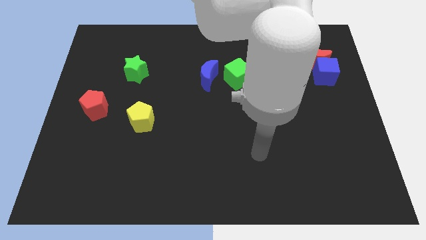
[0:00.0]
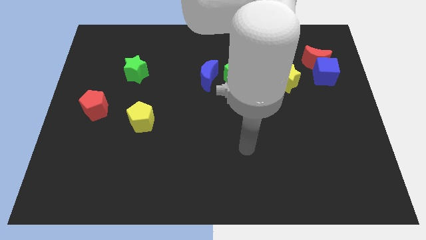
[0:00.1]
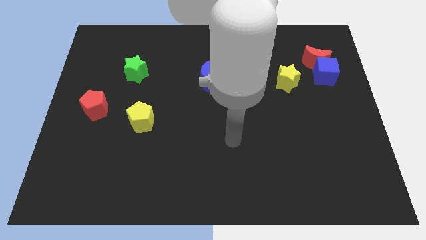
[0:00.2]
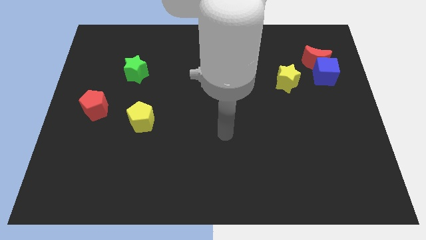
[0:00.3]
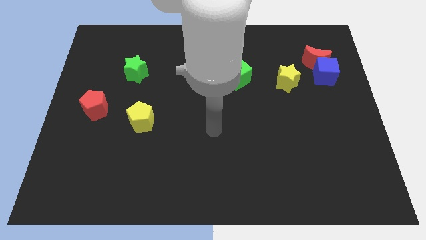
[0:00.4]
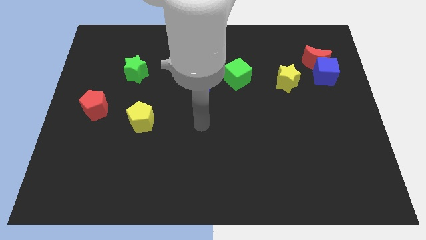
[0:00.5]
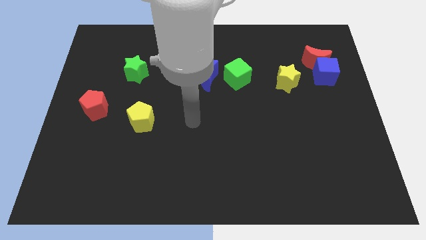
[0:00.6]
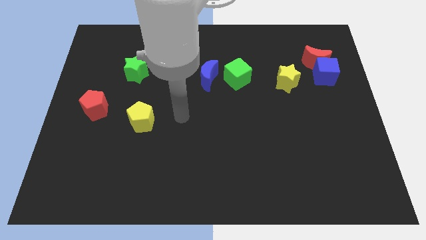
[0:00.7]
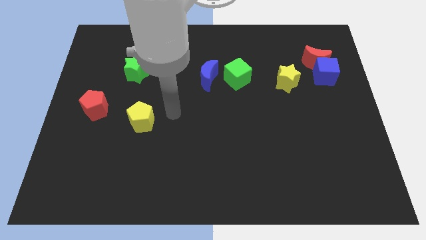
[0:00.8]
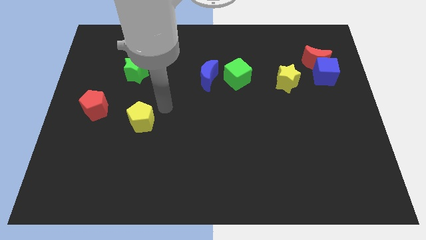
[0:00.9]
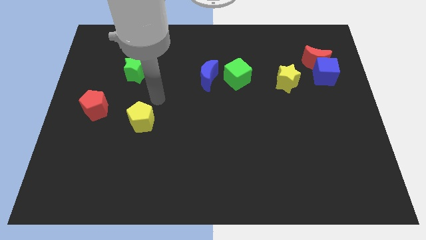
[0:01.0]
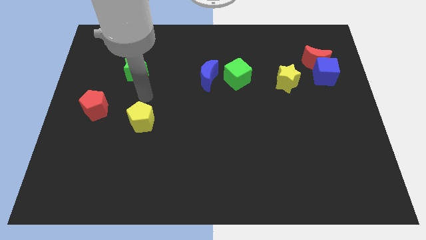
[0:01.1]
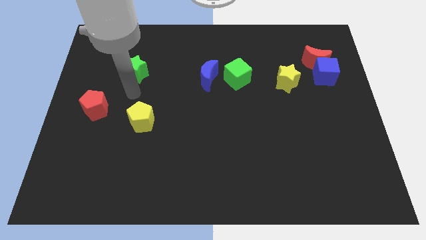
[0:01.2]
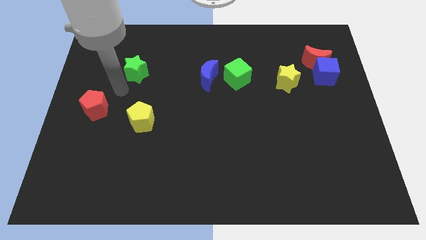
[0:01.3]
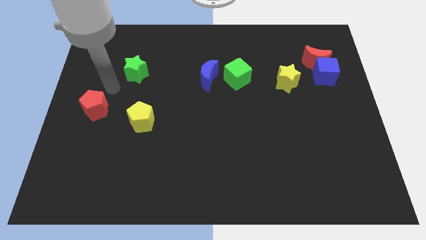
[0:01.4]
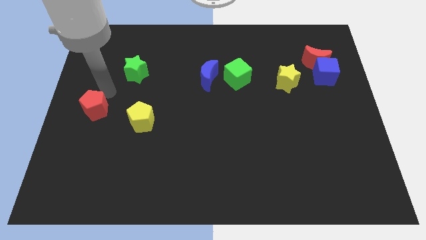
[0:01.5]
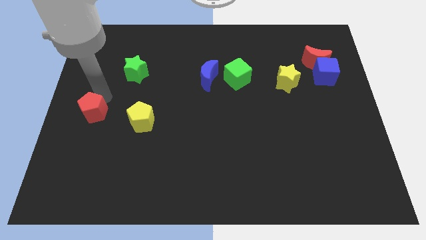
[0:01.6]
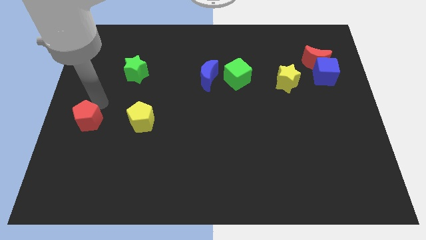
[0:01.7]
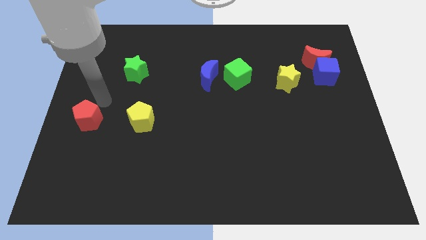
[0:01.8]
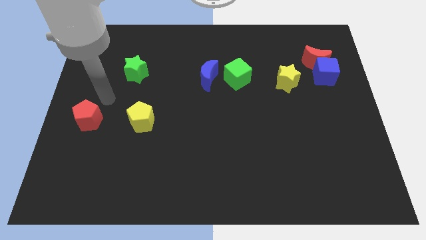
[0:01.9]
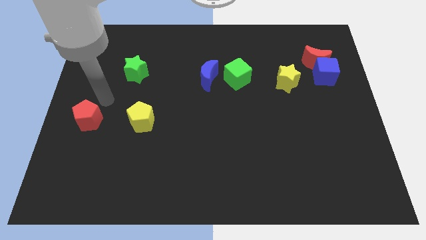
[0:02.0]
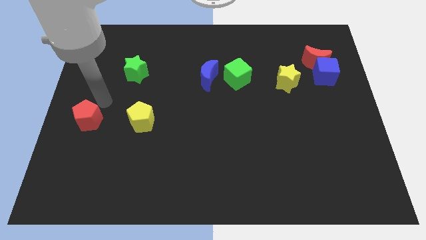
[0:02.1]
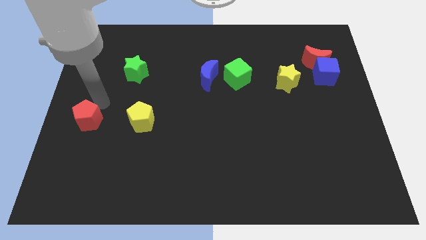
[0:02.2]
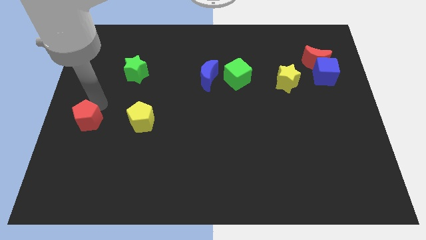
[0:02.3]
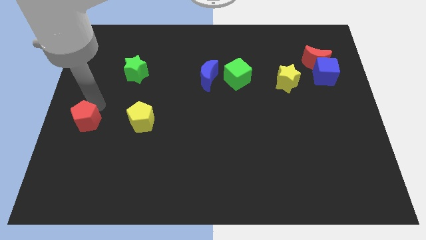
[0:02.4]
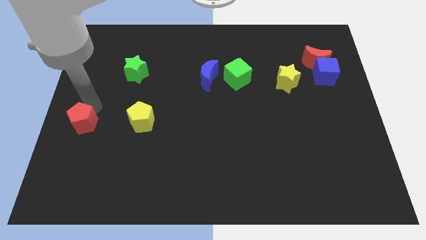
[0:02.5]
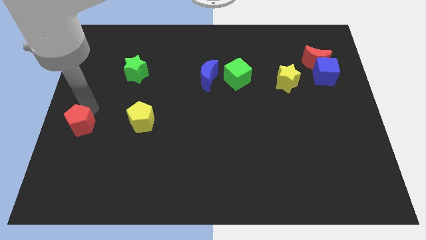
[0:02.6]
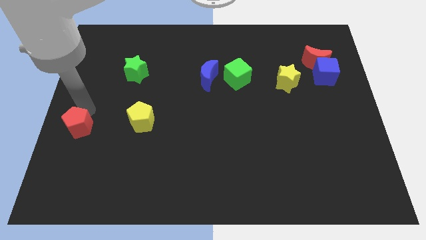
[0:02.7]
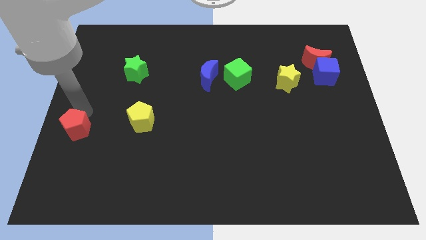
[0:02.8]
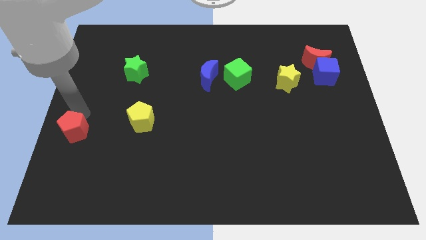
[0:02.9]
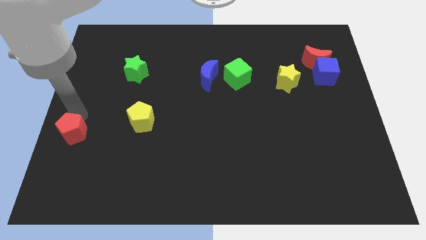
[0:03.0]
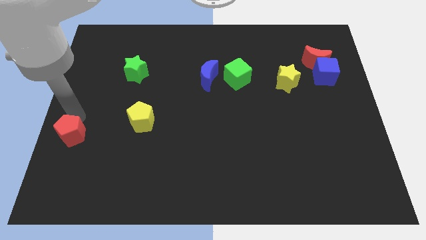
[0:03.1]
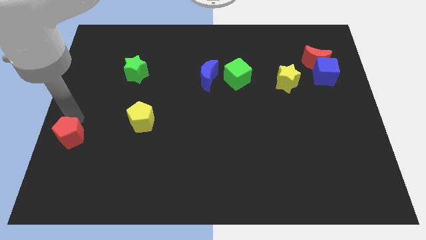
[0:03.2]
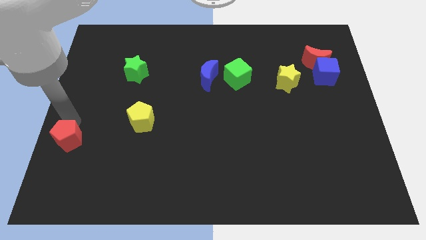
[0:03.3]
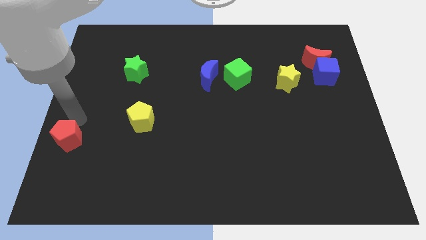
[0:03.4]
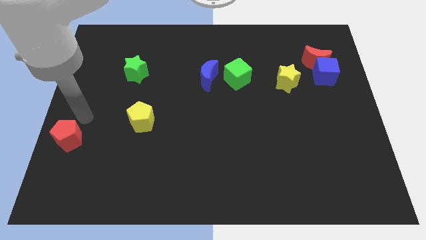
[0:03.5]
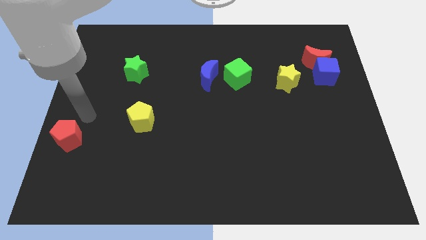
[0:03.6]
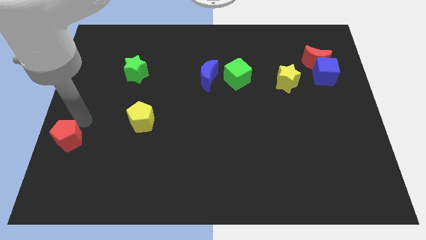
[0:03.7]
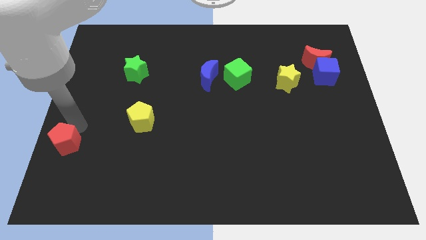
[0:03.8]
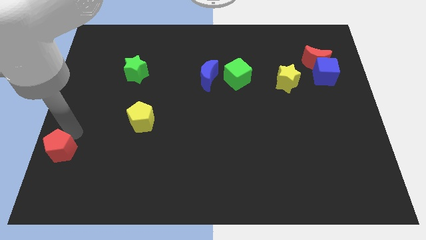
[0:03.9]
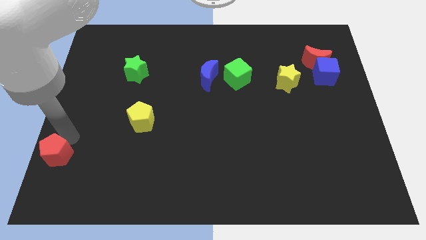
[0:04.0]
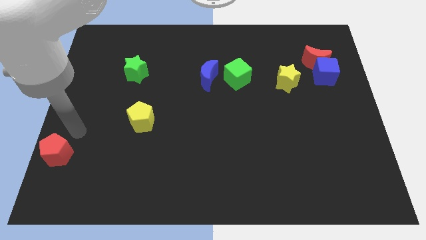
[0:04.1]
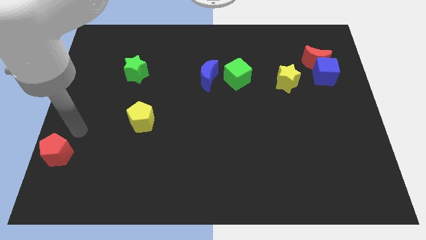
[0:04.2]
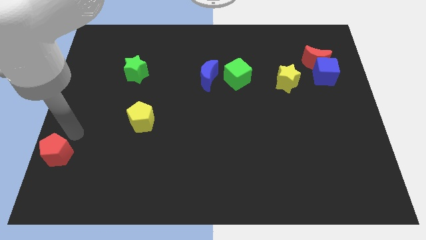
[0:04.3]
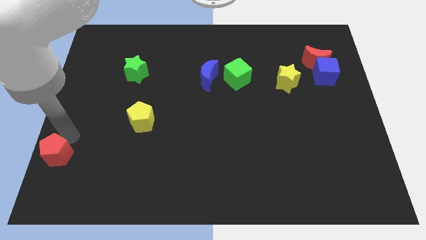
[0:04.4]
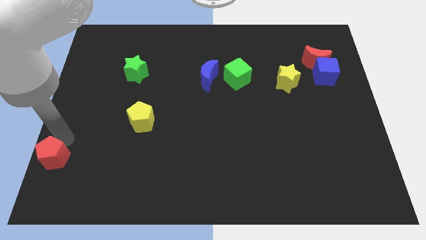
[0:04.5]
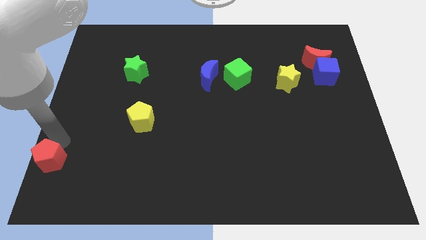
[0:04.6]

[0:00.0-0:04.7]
slide the red pentagon to the lower left corner

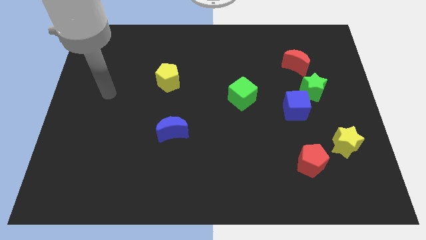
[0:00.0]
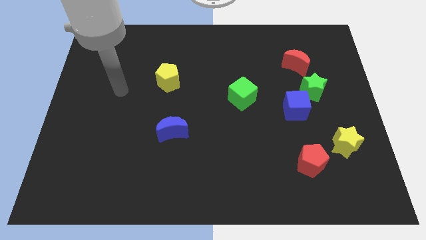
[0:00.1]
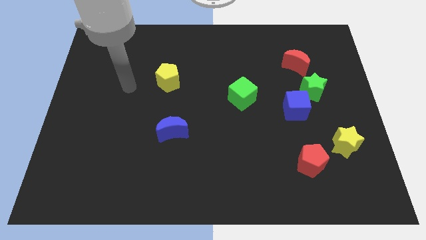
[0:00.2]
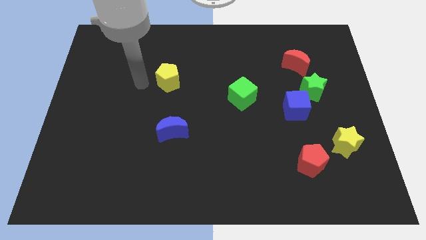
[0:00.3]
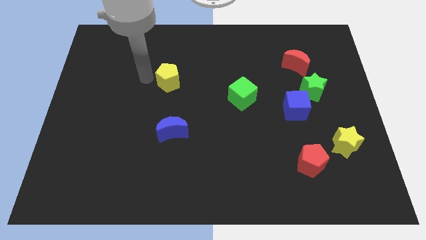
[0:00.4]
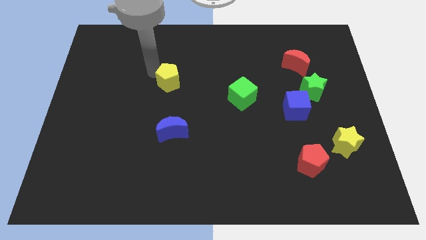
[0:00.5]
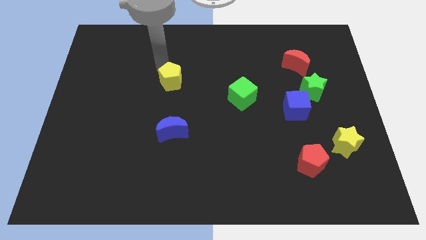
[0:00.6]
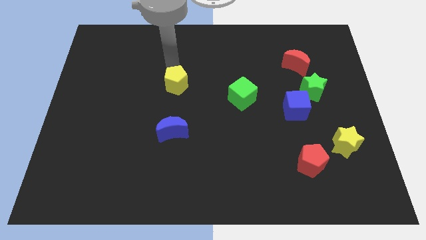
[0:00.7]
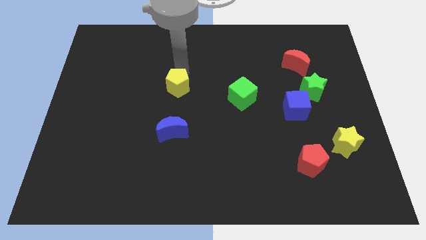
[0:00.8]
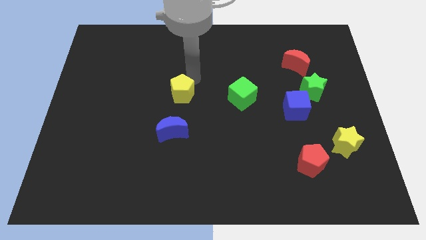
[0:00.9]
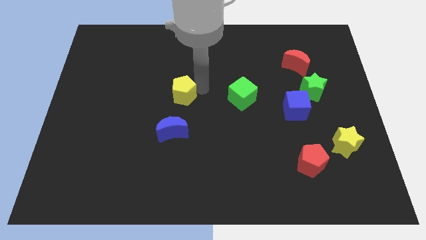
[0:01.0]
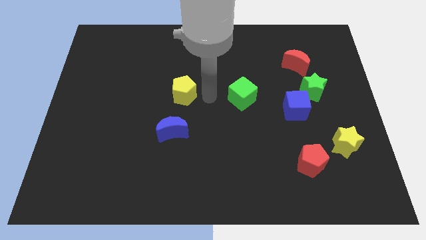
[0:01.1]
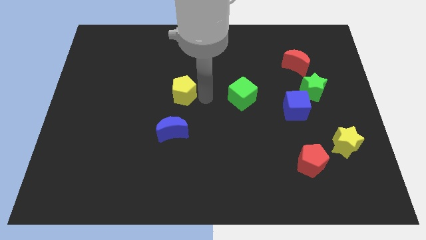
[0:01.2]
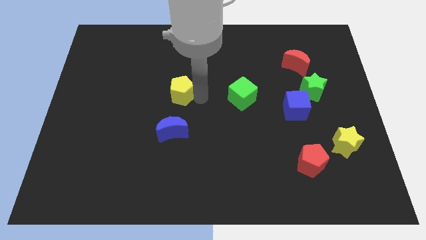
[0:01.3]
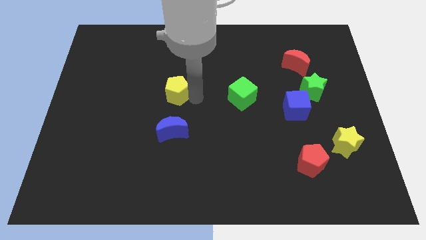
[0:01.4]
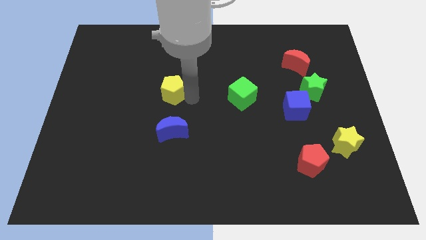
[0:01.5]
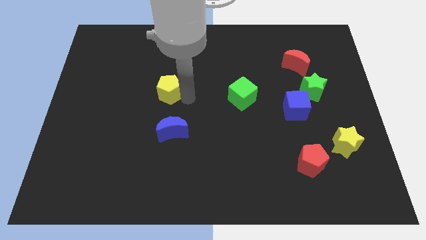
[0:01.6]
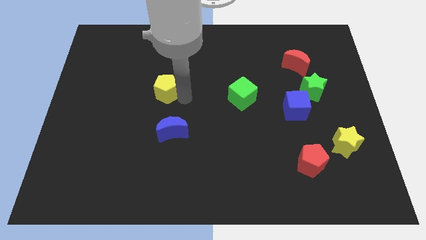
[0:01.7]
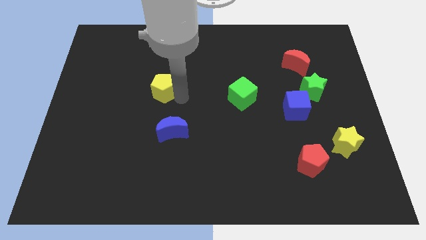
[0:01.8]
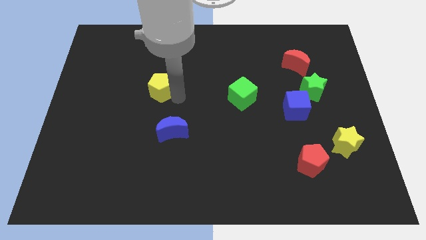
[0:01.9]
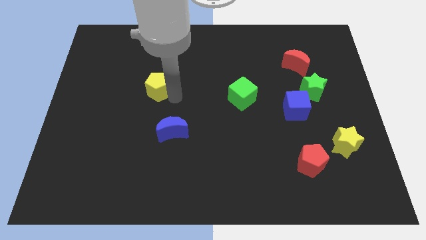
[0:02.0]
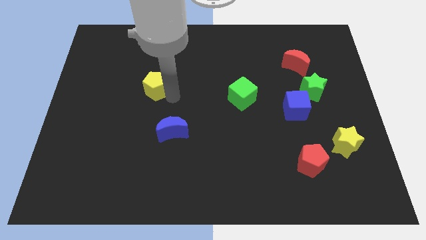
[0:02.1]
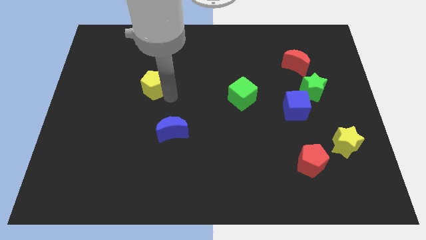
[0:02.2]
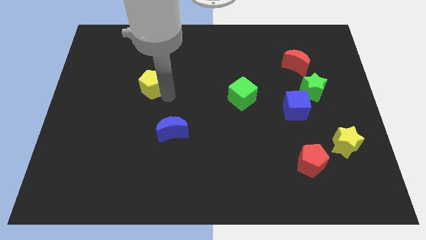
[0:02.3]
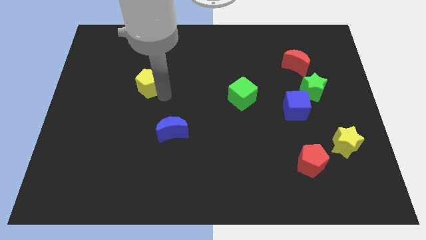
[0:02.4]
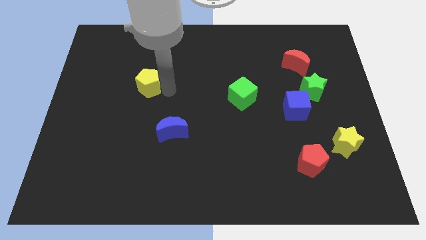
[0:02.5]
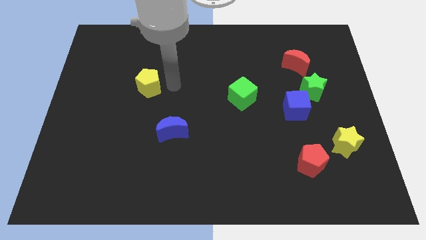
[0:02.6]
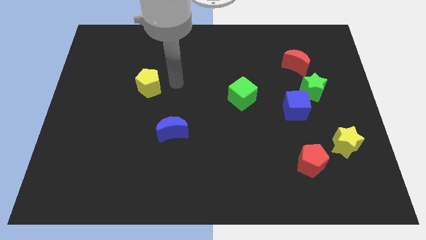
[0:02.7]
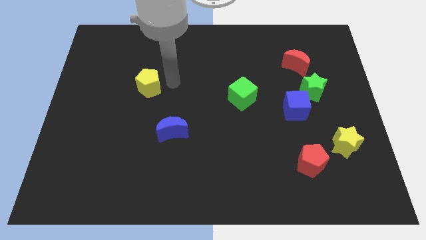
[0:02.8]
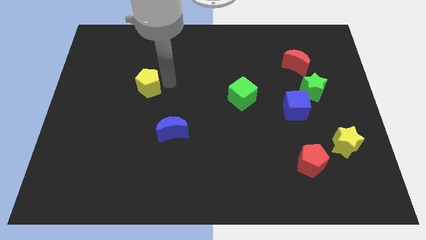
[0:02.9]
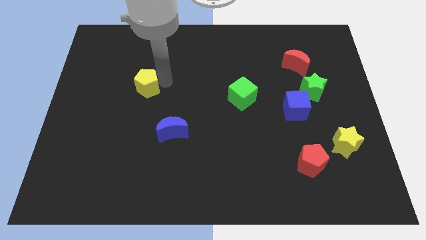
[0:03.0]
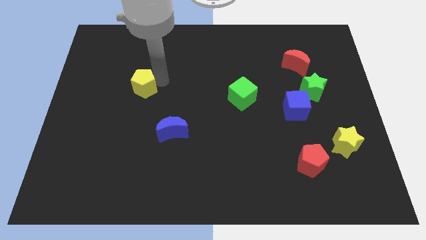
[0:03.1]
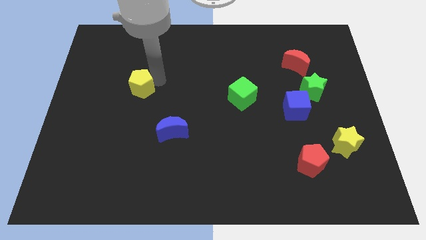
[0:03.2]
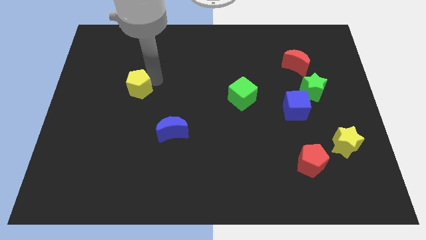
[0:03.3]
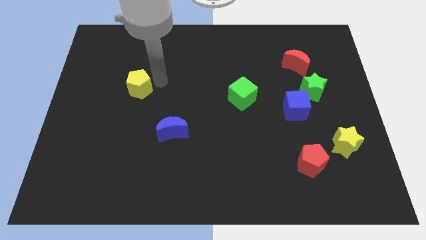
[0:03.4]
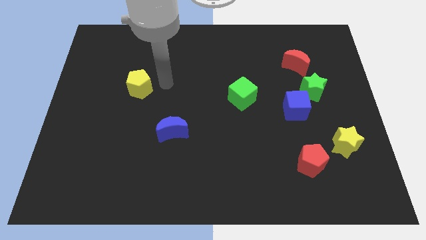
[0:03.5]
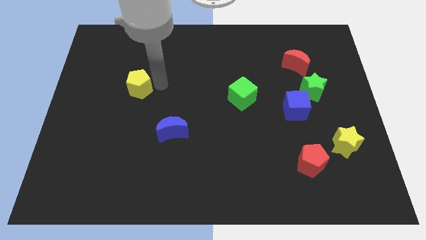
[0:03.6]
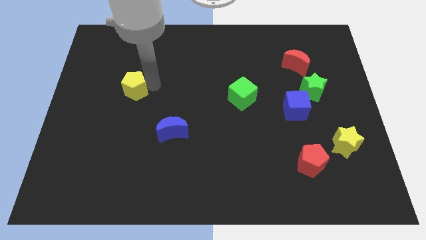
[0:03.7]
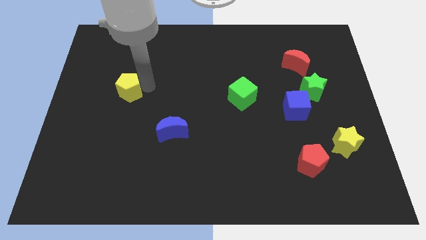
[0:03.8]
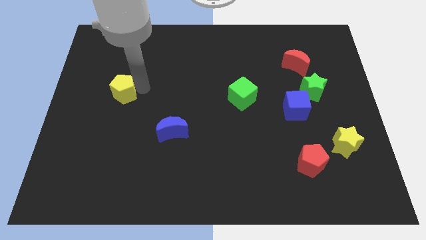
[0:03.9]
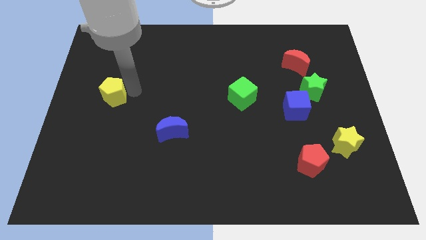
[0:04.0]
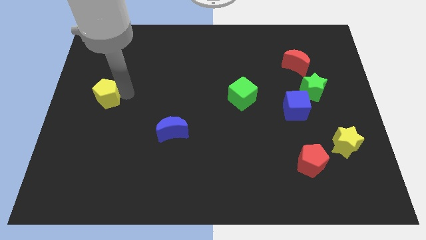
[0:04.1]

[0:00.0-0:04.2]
move the yellow pentagon to the center left
